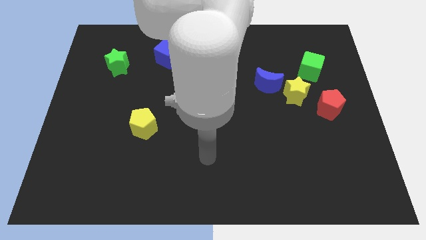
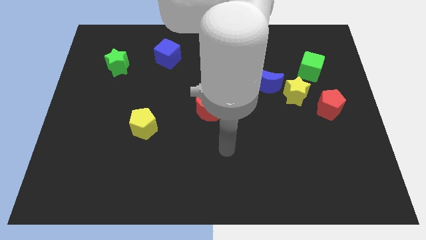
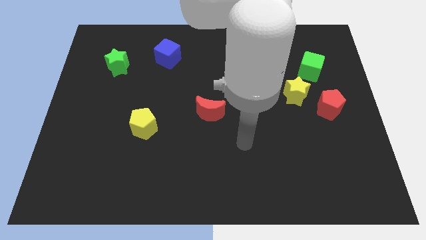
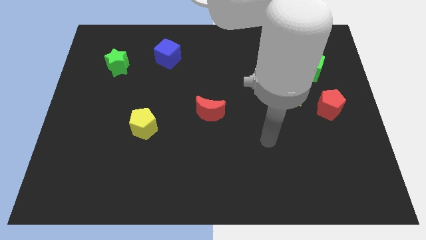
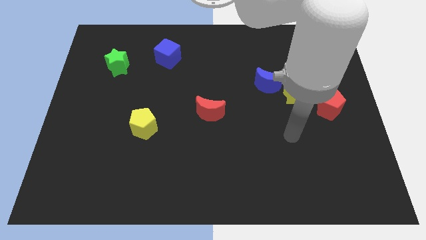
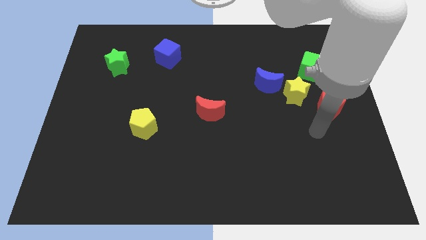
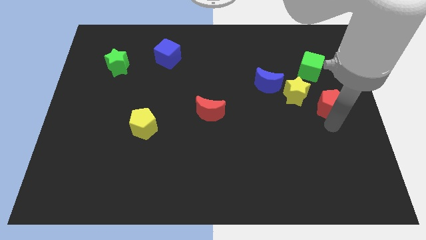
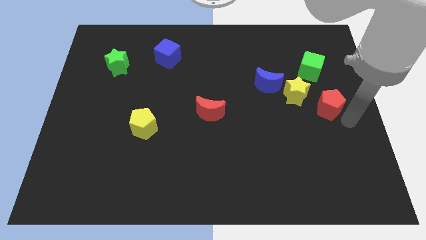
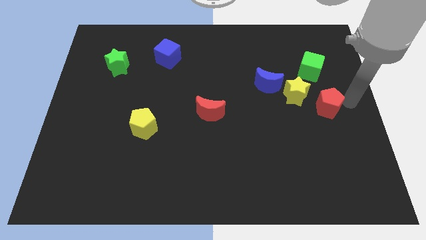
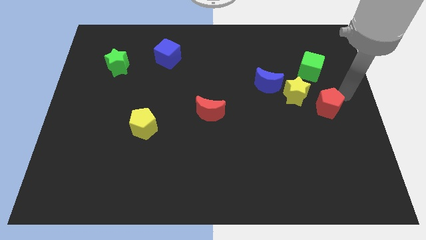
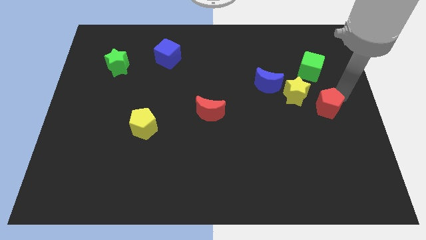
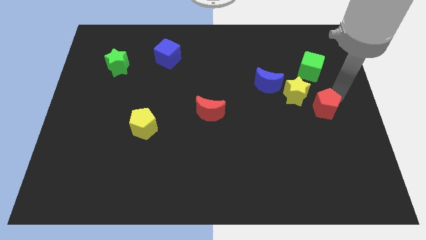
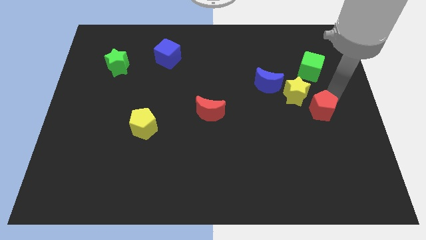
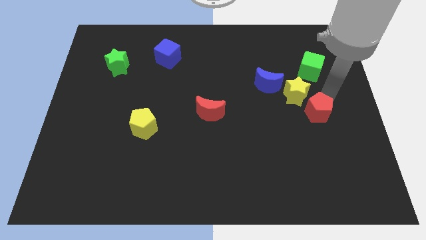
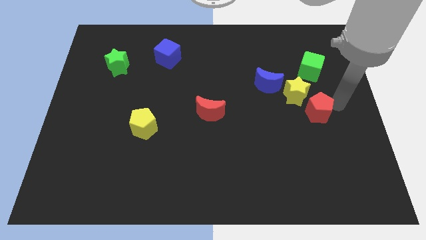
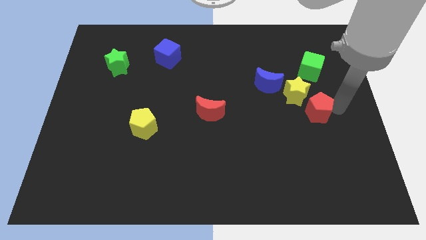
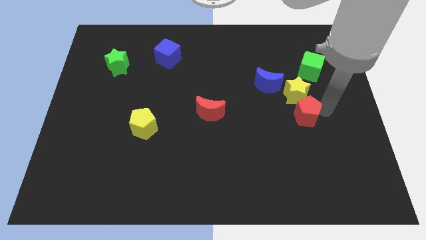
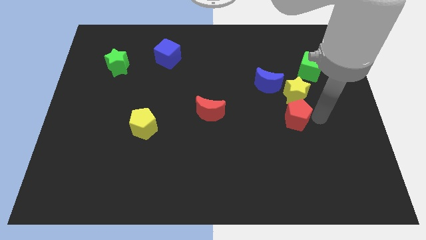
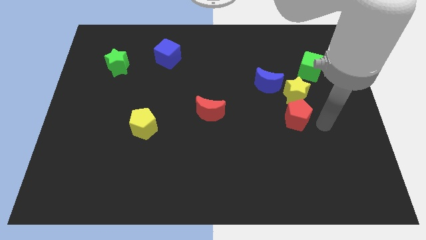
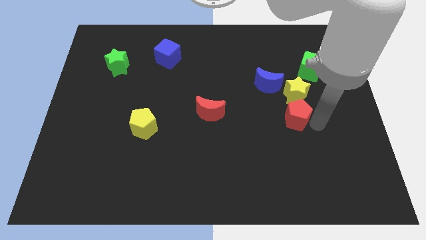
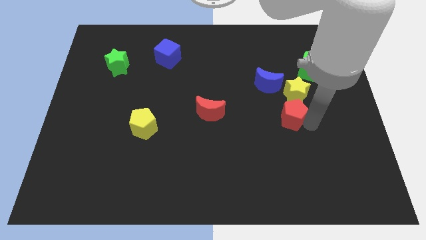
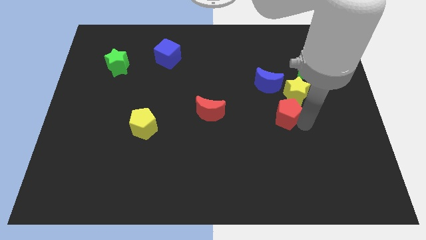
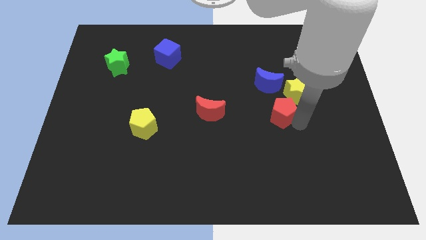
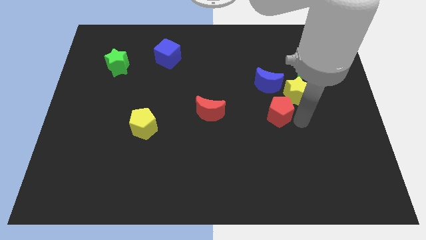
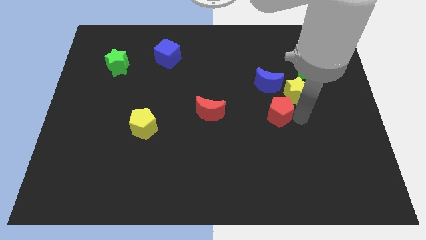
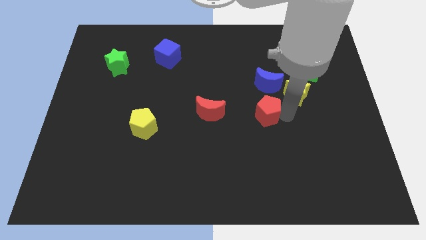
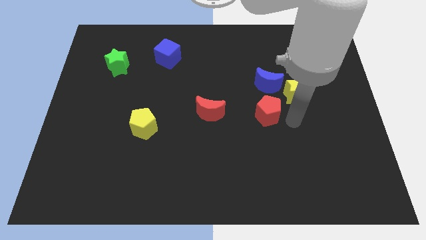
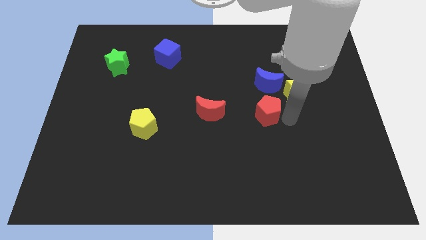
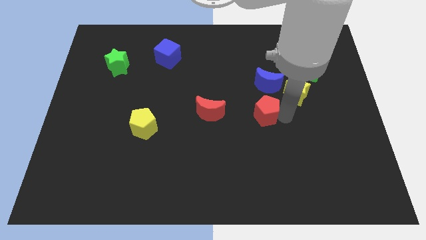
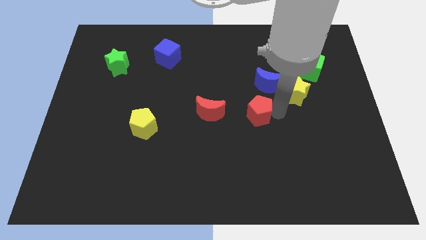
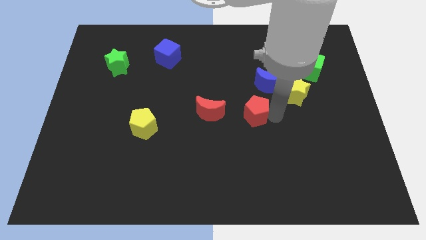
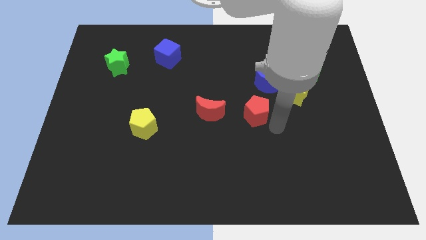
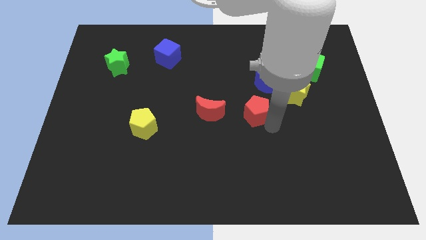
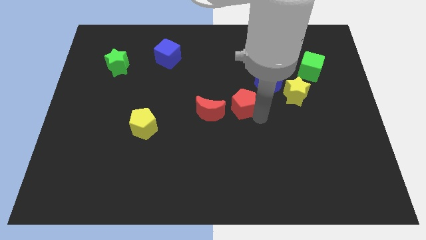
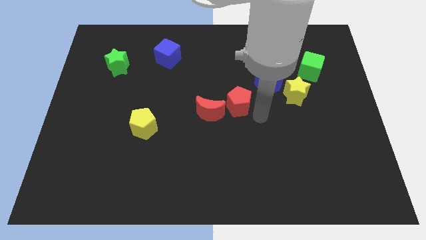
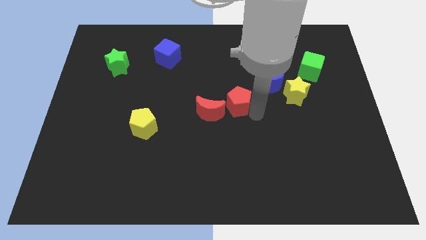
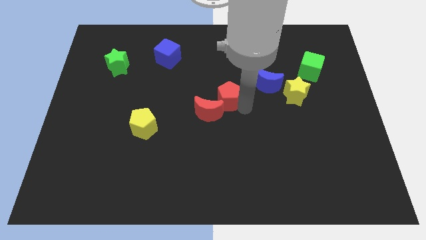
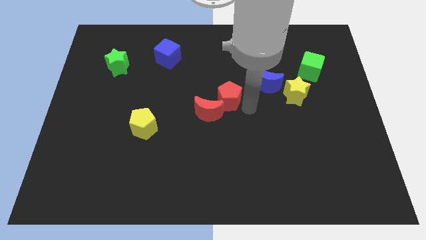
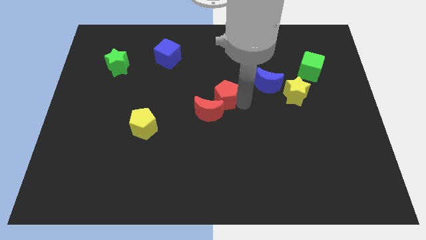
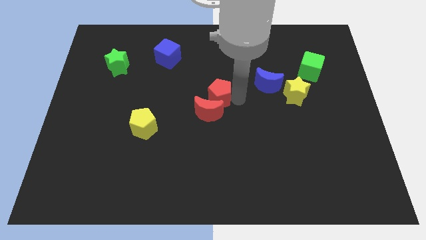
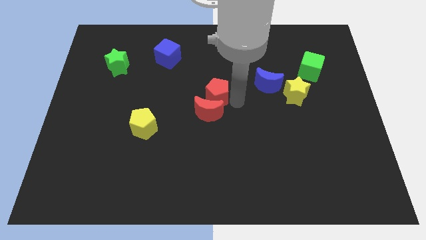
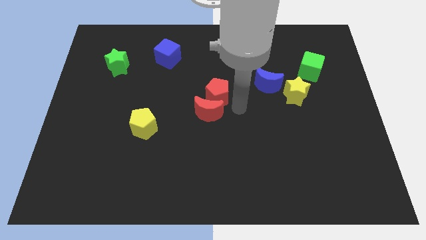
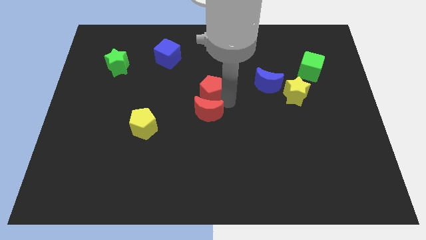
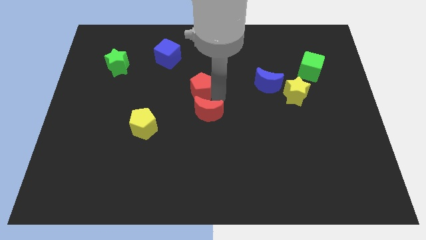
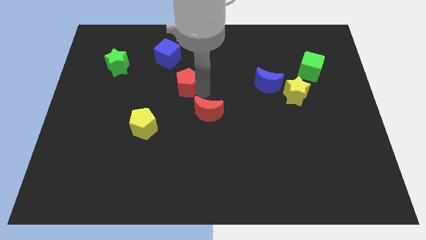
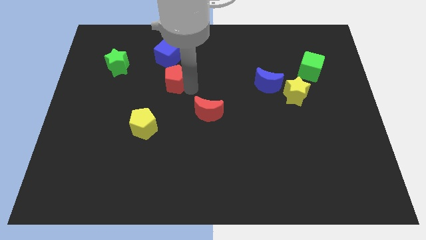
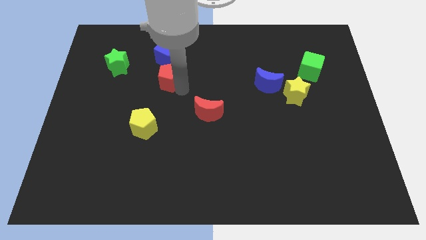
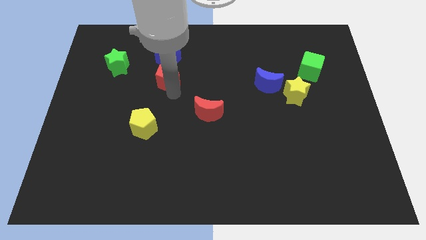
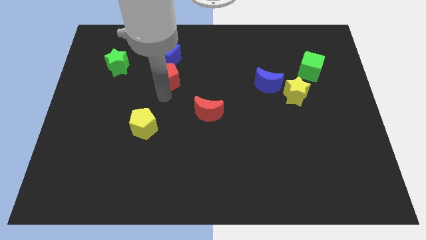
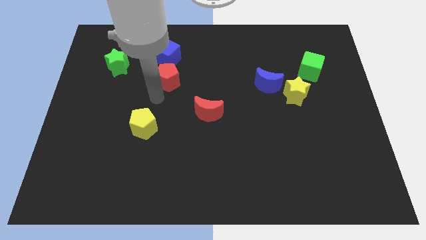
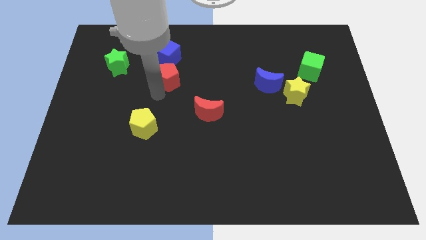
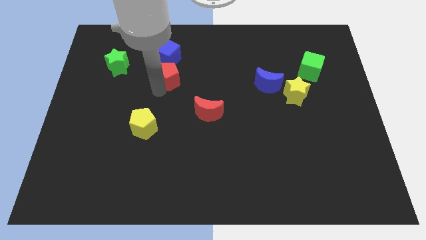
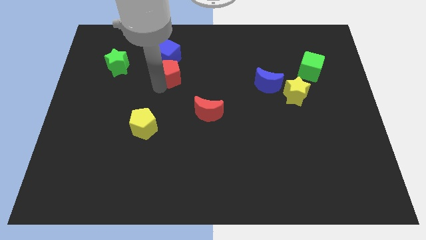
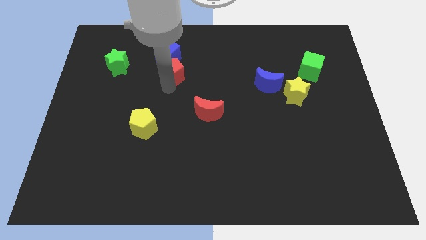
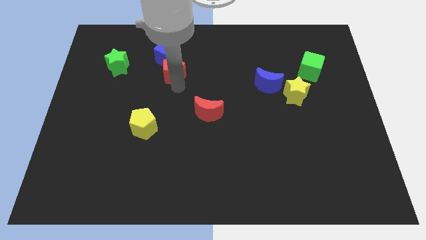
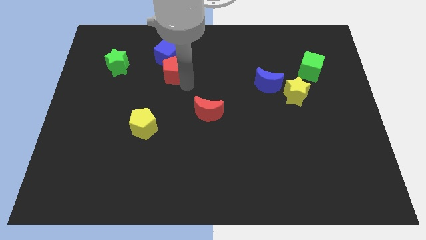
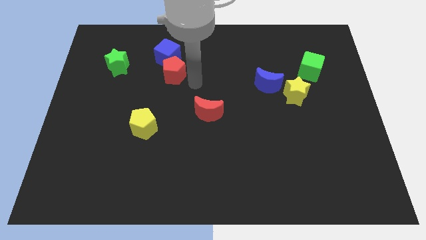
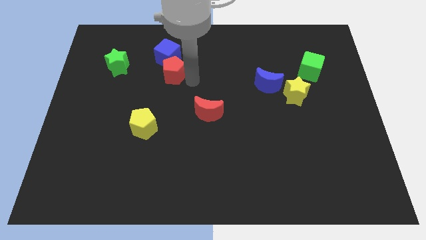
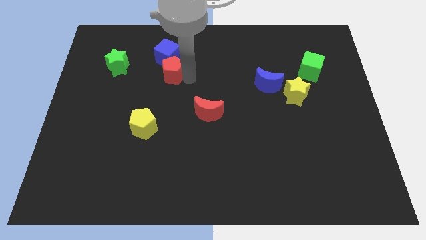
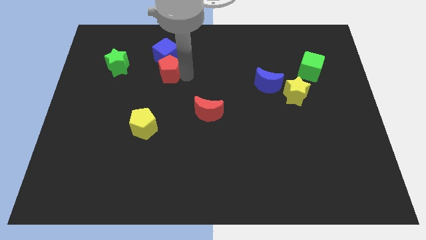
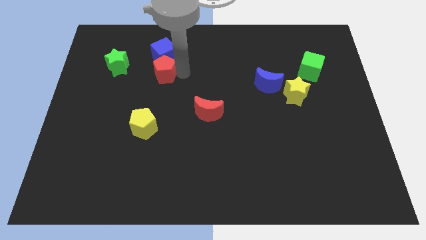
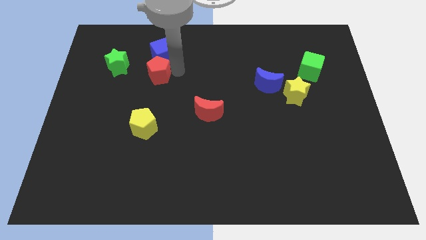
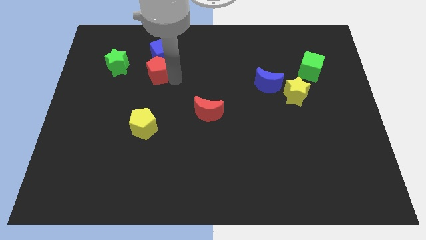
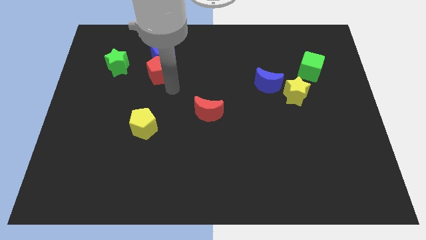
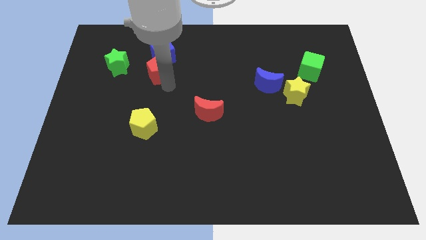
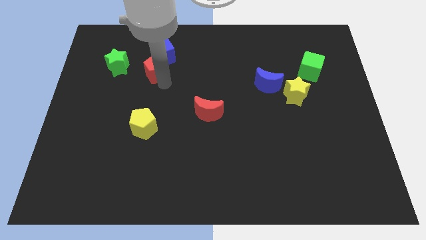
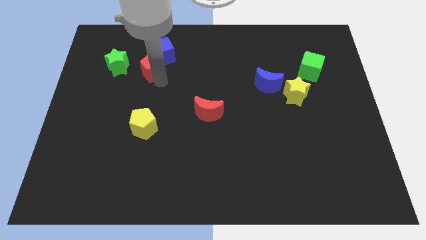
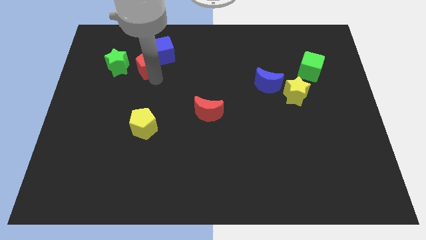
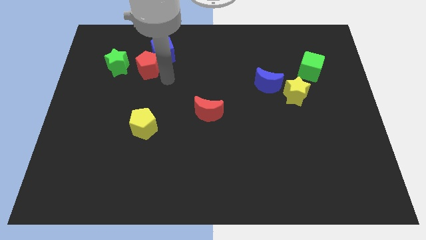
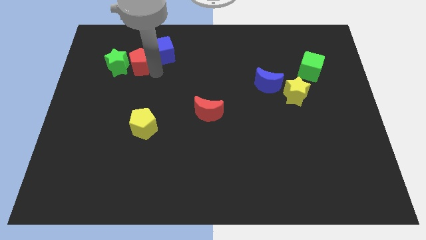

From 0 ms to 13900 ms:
move the red pentagon to the left of the blue cube
